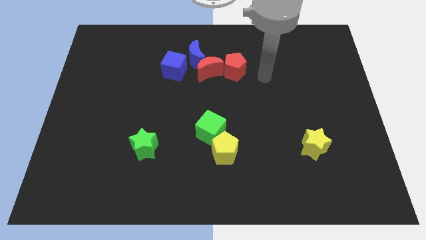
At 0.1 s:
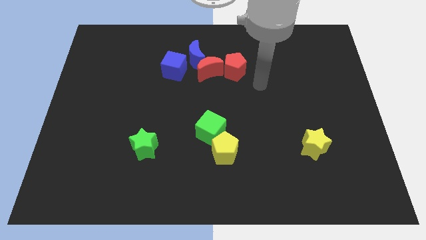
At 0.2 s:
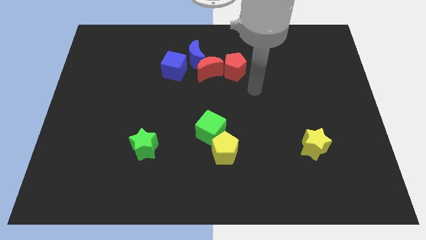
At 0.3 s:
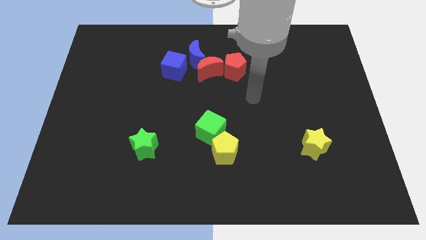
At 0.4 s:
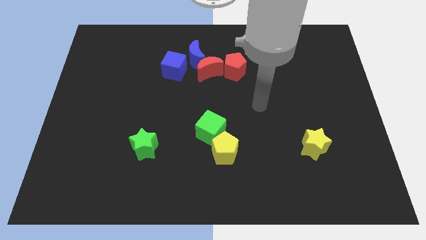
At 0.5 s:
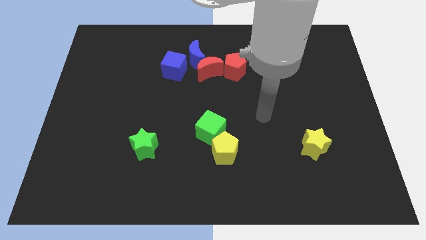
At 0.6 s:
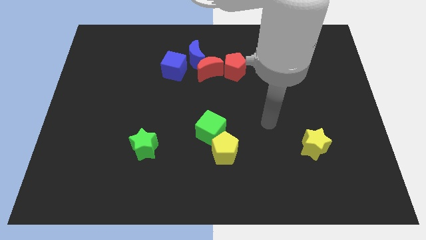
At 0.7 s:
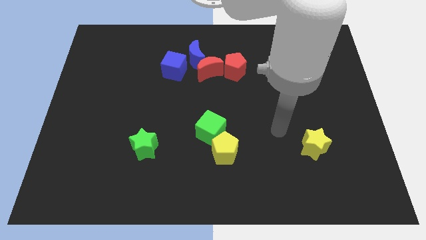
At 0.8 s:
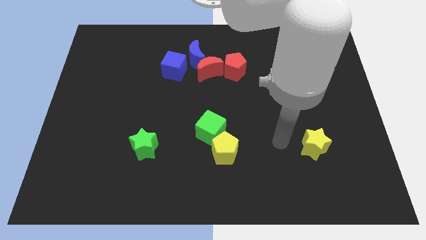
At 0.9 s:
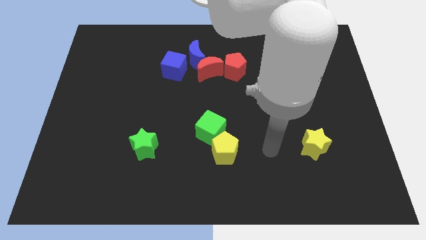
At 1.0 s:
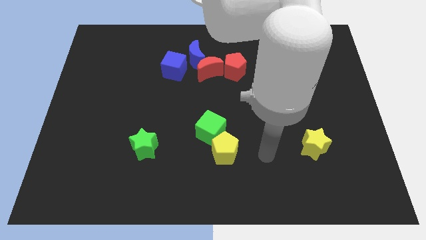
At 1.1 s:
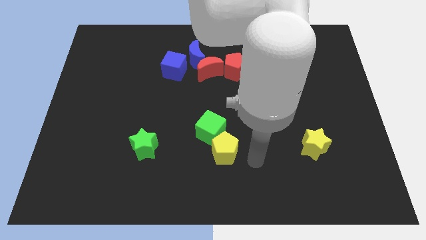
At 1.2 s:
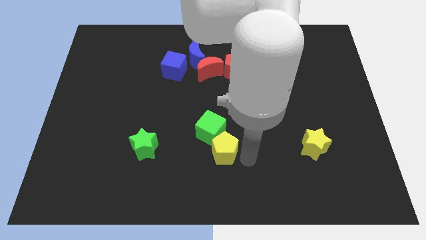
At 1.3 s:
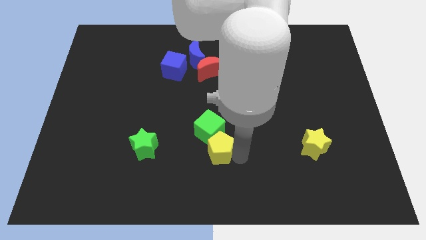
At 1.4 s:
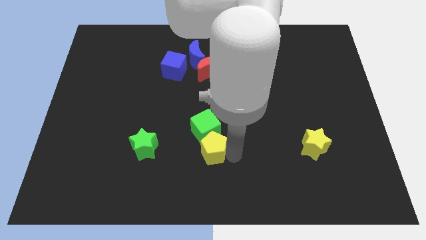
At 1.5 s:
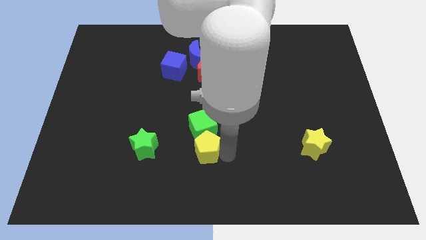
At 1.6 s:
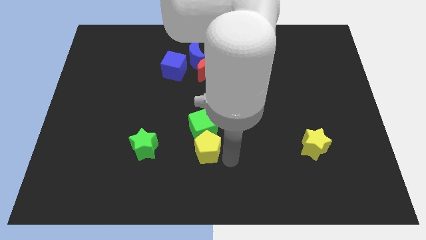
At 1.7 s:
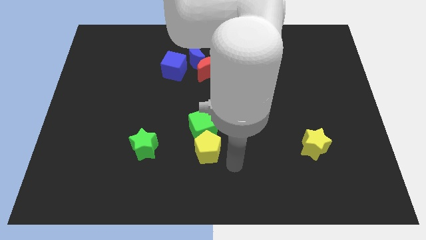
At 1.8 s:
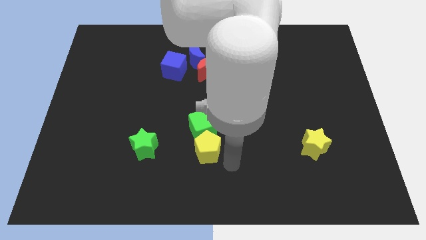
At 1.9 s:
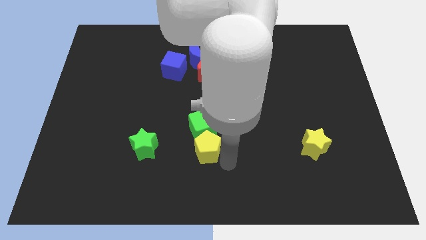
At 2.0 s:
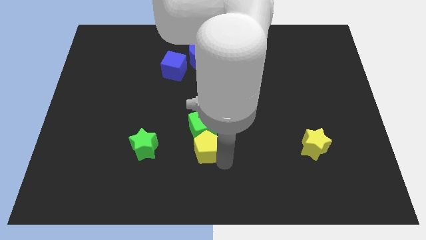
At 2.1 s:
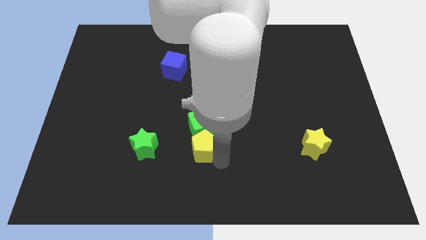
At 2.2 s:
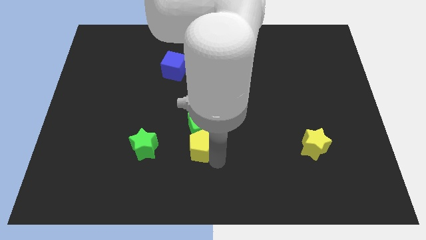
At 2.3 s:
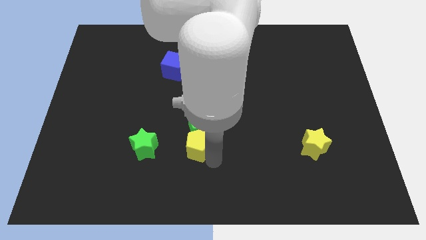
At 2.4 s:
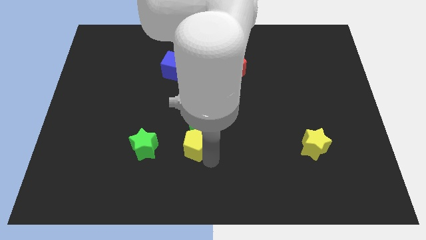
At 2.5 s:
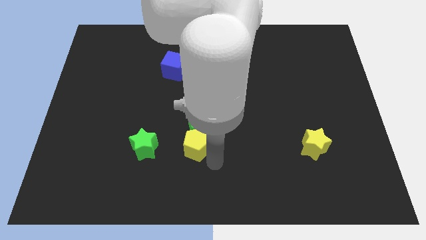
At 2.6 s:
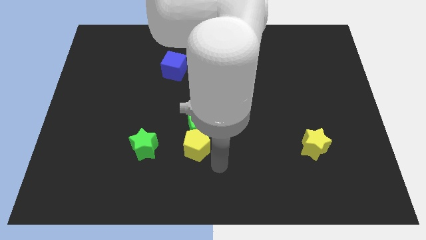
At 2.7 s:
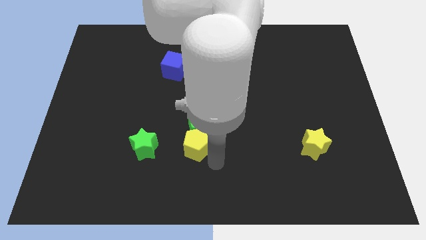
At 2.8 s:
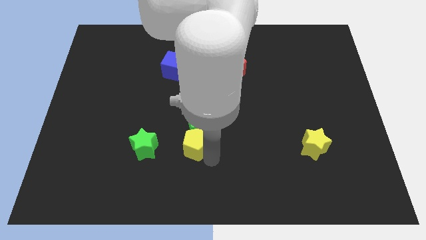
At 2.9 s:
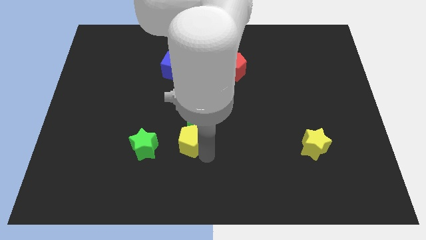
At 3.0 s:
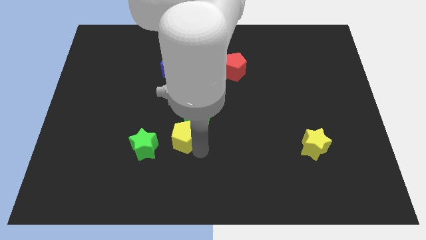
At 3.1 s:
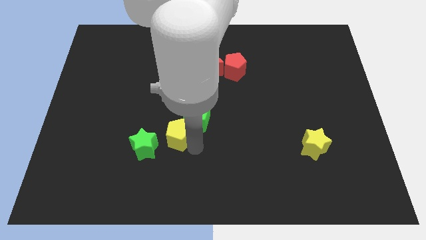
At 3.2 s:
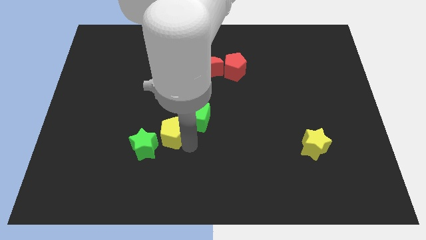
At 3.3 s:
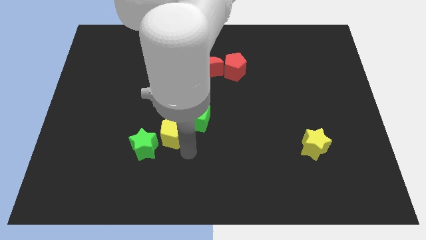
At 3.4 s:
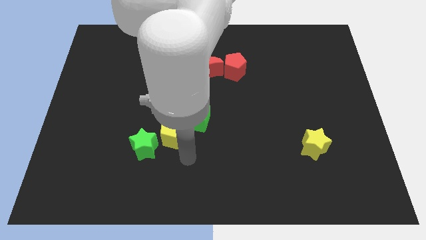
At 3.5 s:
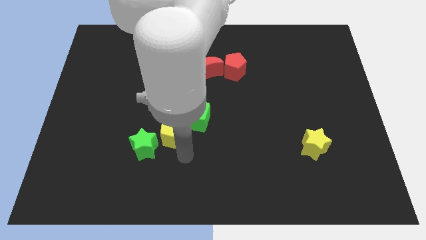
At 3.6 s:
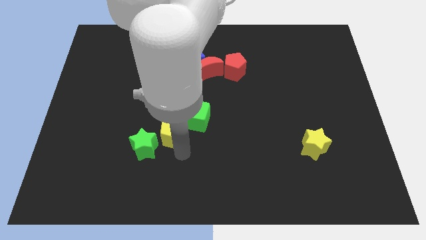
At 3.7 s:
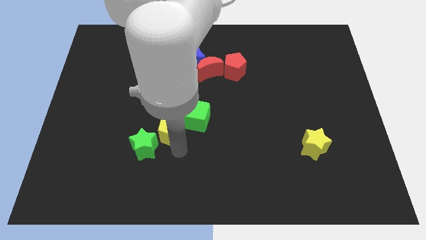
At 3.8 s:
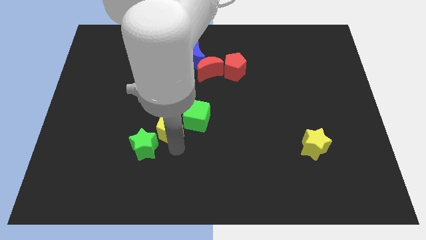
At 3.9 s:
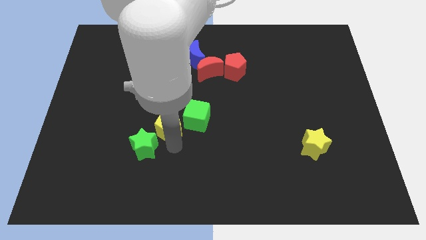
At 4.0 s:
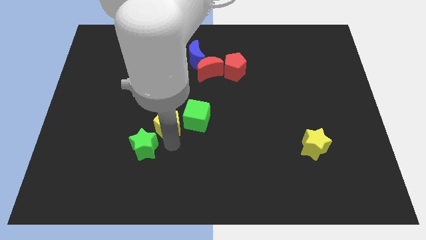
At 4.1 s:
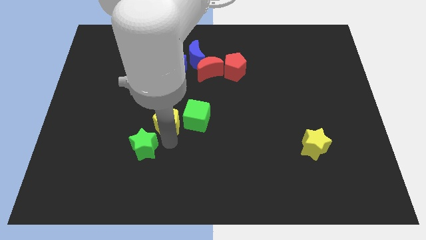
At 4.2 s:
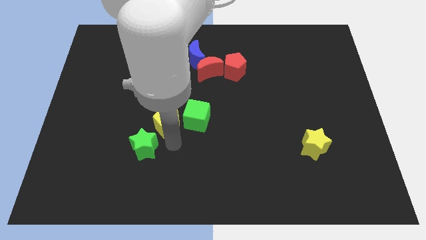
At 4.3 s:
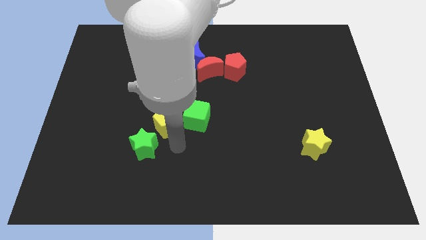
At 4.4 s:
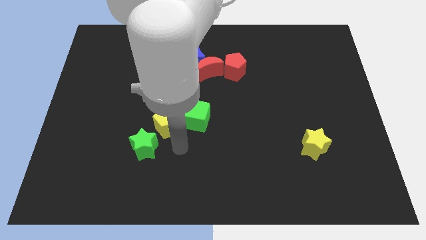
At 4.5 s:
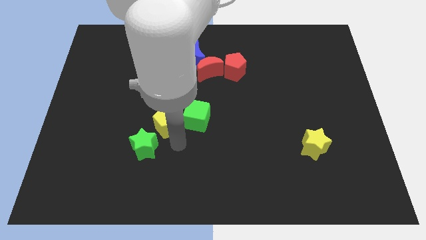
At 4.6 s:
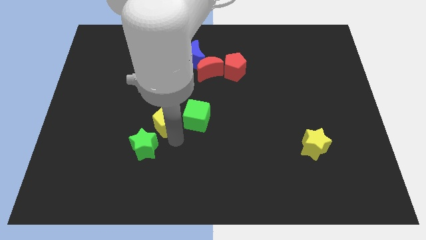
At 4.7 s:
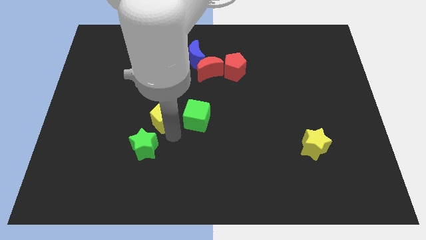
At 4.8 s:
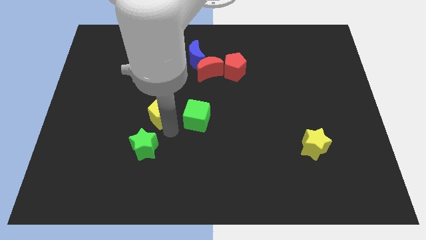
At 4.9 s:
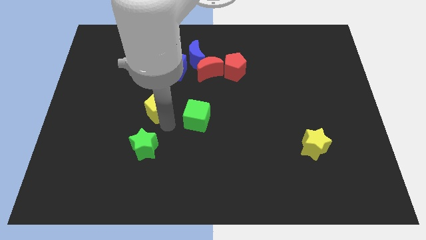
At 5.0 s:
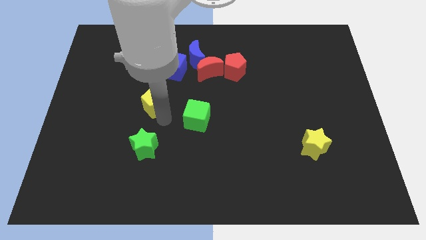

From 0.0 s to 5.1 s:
move the yellow pentagon up and left diagonally

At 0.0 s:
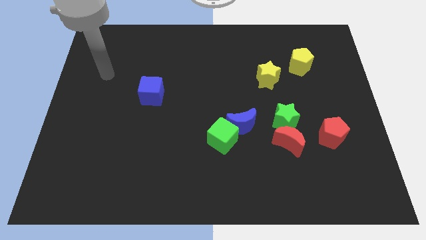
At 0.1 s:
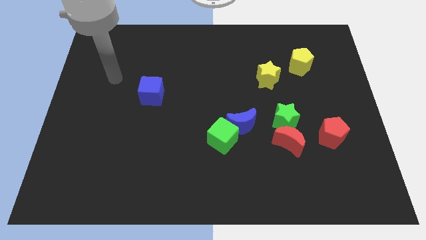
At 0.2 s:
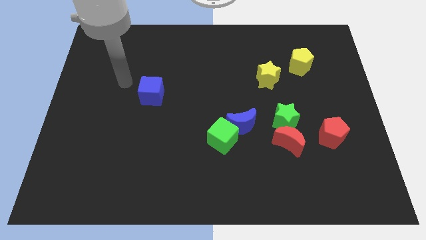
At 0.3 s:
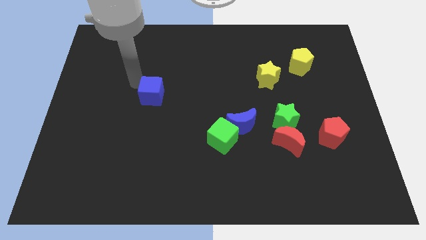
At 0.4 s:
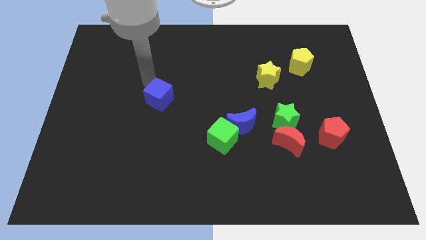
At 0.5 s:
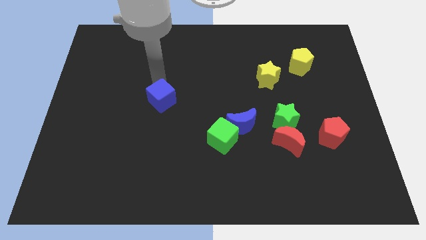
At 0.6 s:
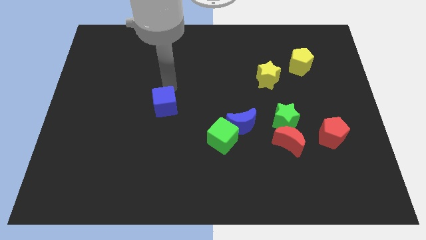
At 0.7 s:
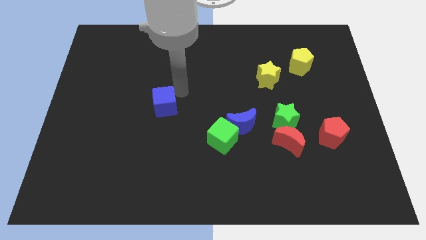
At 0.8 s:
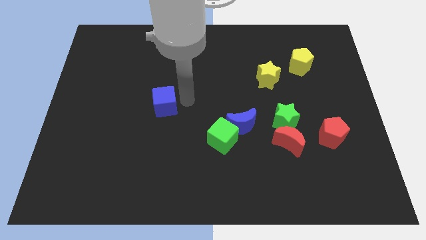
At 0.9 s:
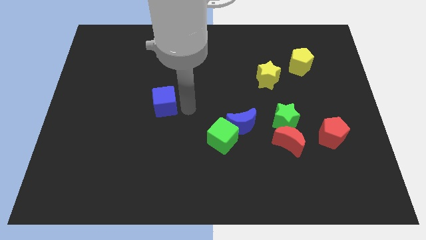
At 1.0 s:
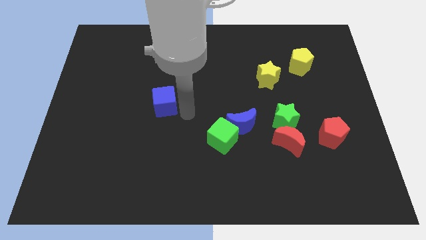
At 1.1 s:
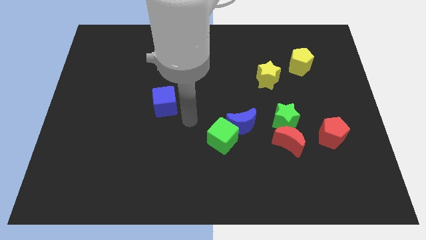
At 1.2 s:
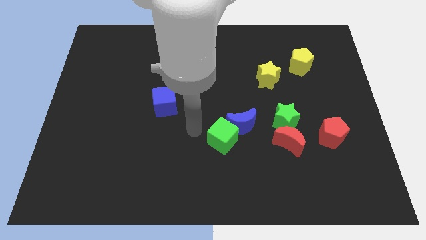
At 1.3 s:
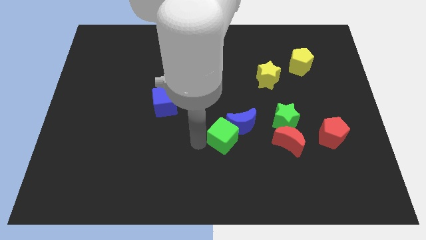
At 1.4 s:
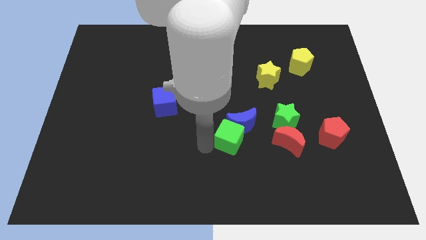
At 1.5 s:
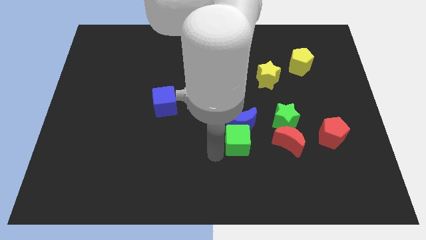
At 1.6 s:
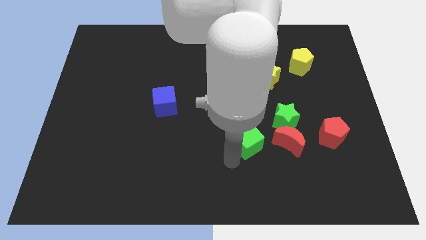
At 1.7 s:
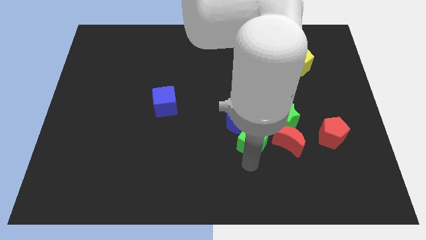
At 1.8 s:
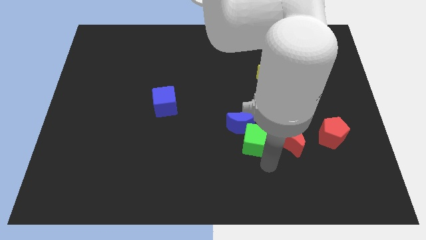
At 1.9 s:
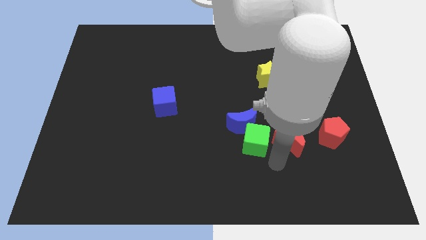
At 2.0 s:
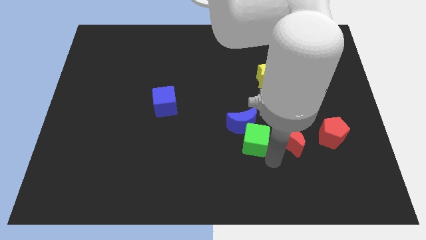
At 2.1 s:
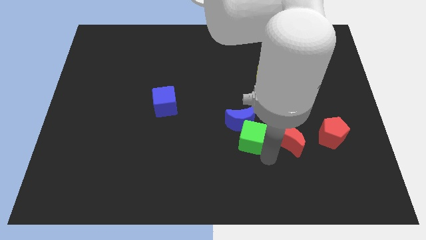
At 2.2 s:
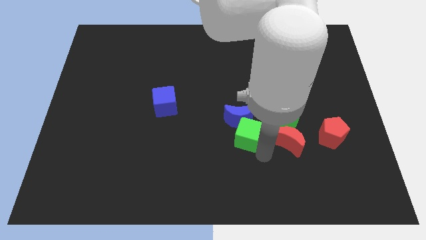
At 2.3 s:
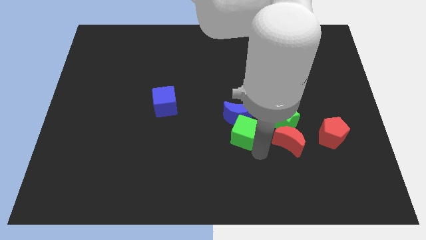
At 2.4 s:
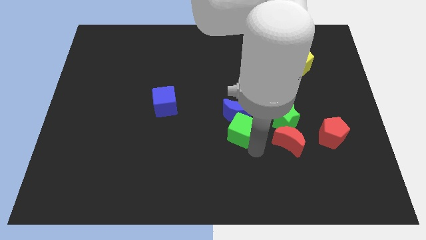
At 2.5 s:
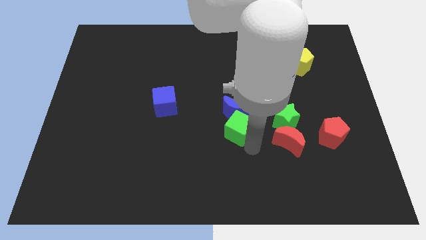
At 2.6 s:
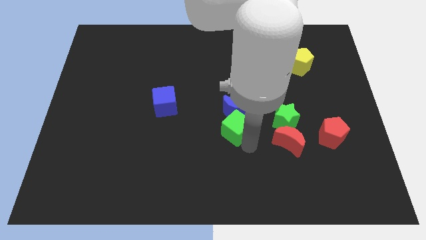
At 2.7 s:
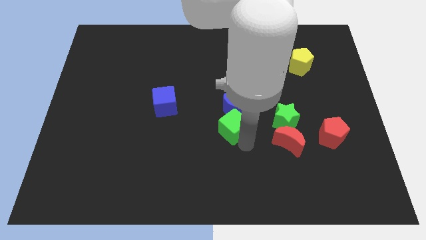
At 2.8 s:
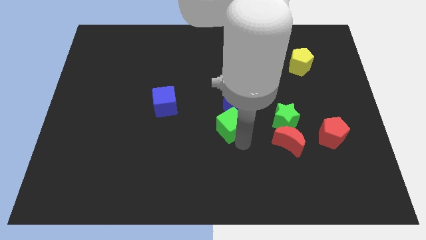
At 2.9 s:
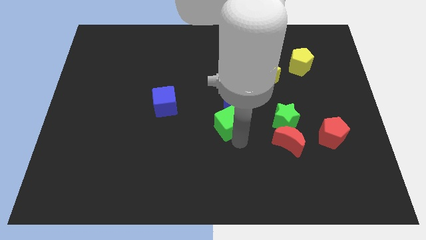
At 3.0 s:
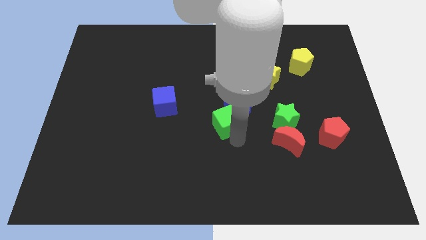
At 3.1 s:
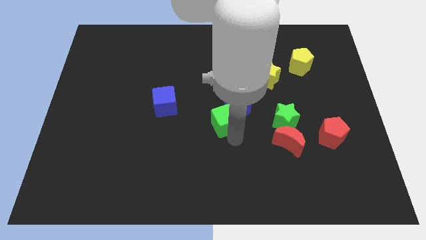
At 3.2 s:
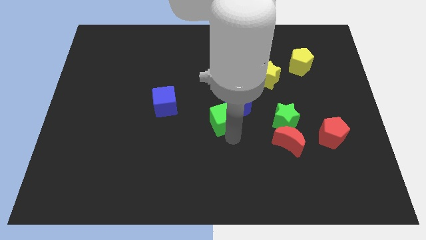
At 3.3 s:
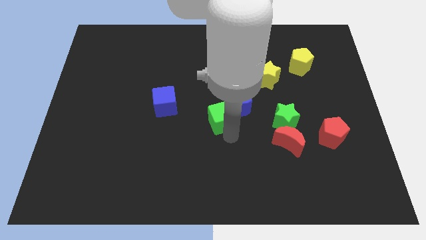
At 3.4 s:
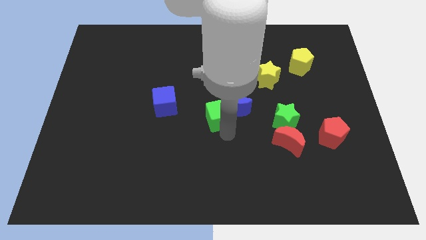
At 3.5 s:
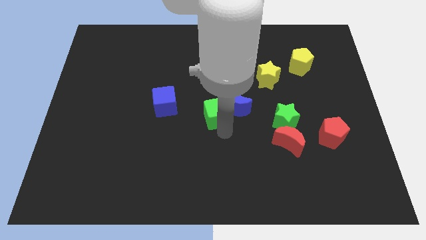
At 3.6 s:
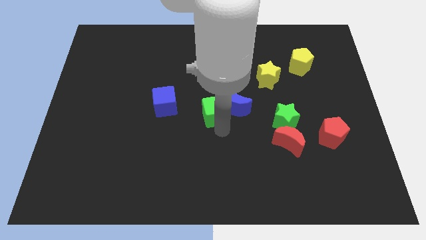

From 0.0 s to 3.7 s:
slide the green cube a little bit up
